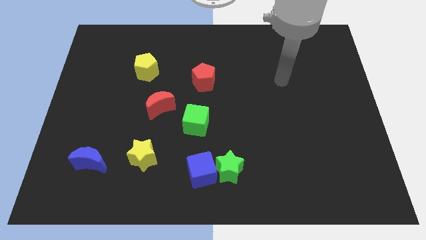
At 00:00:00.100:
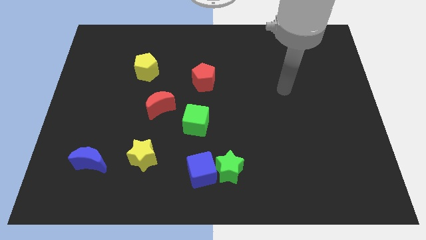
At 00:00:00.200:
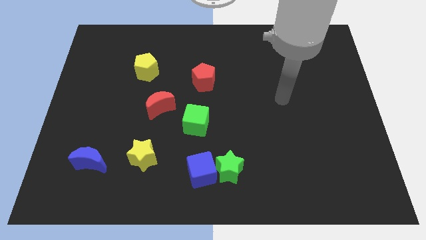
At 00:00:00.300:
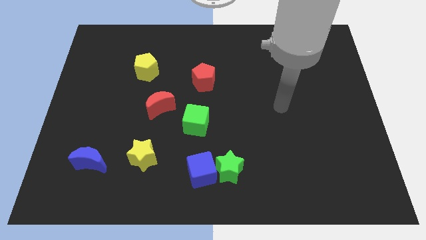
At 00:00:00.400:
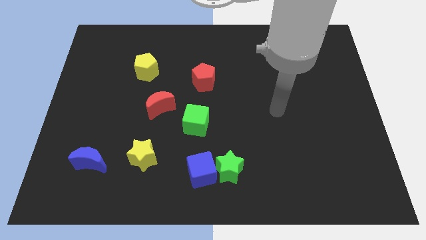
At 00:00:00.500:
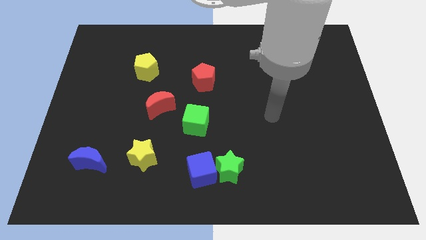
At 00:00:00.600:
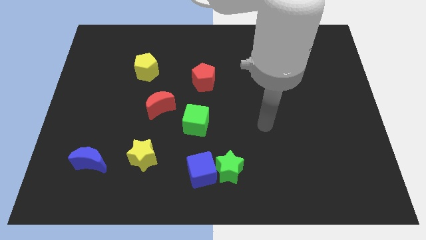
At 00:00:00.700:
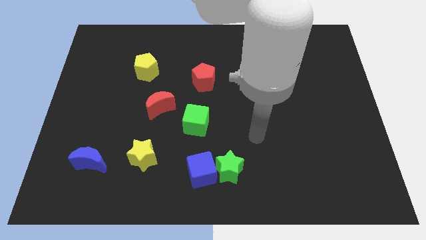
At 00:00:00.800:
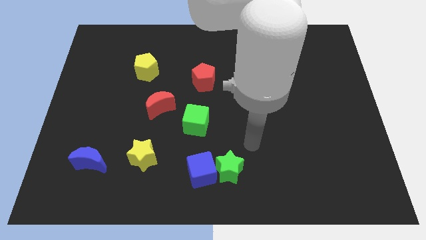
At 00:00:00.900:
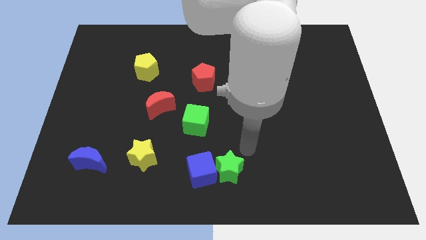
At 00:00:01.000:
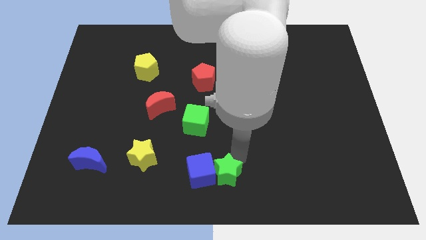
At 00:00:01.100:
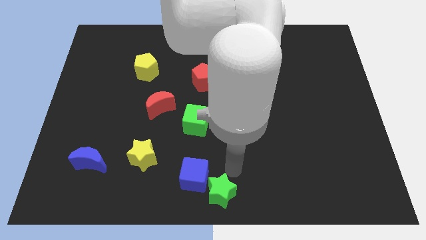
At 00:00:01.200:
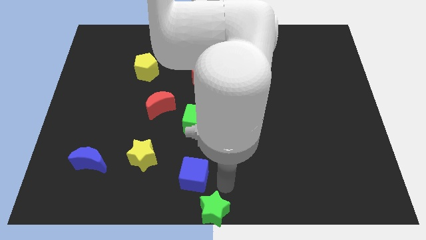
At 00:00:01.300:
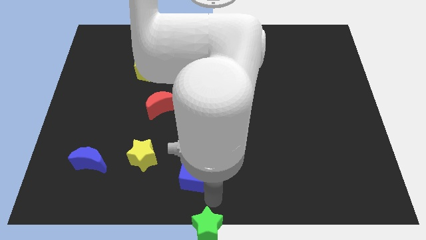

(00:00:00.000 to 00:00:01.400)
pull the blue cube apart from the green star

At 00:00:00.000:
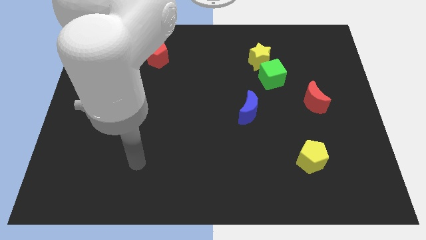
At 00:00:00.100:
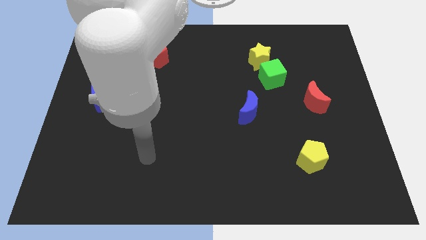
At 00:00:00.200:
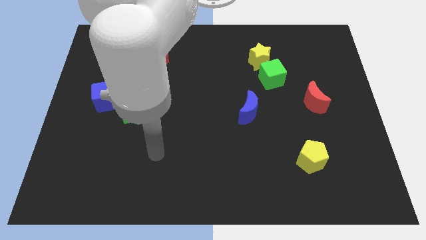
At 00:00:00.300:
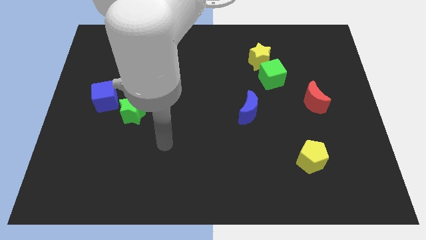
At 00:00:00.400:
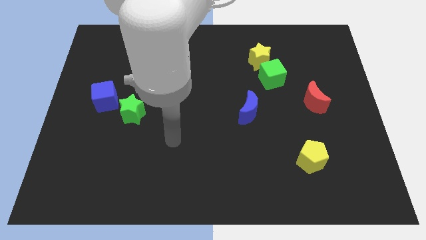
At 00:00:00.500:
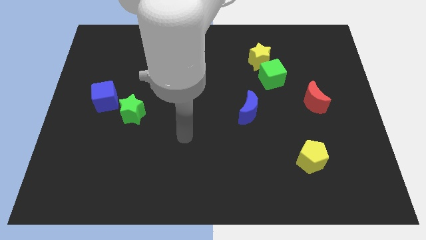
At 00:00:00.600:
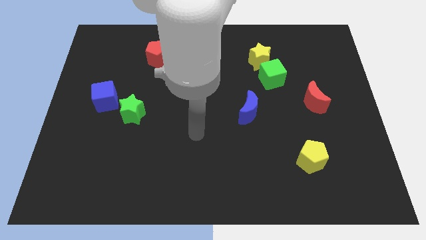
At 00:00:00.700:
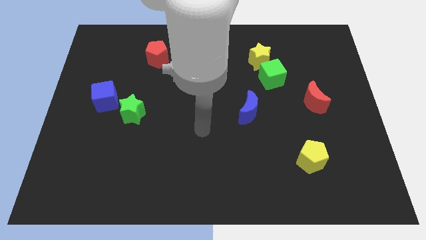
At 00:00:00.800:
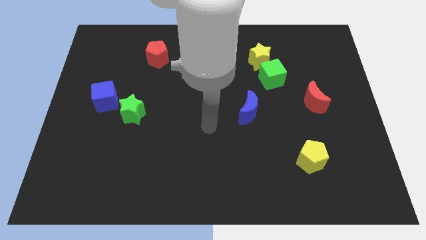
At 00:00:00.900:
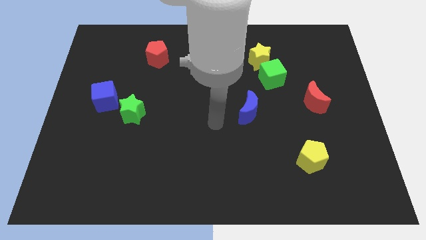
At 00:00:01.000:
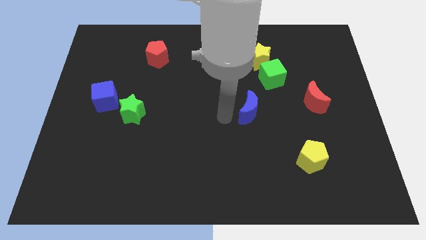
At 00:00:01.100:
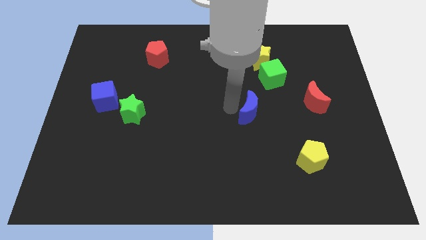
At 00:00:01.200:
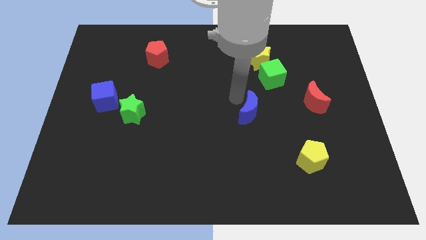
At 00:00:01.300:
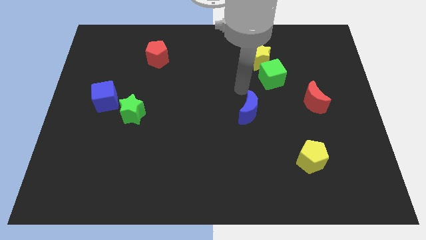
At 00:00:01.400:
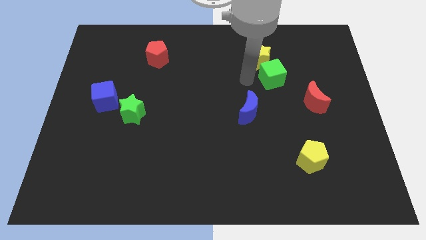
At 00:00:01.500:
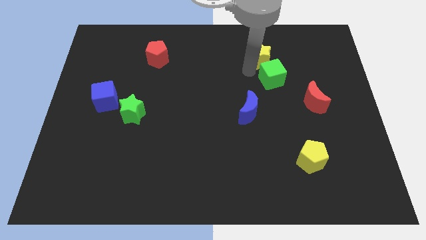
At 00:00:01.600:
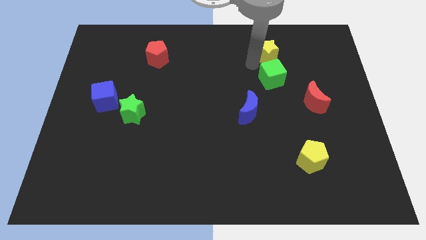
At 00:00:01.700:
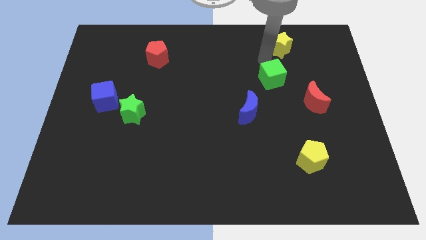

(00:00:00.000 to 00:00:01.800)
move the green cube away from the yellow star

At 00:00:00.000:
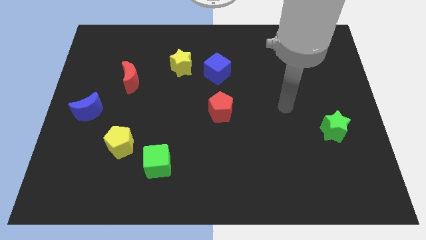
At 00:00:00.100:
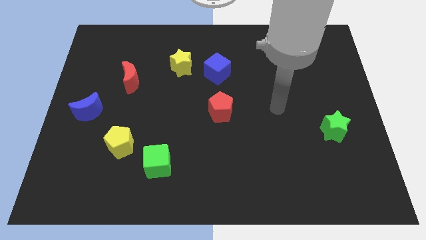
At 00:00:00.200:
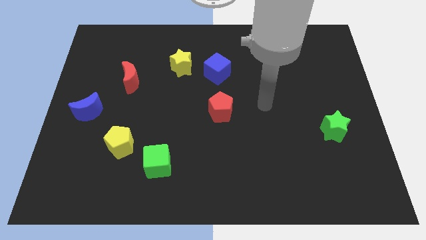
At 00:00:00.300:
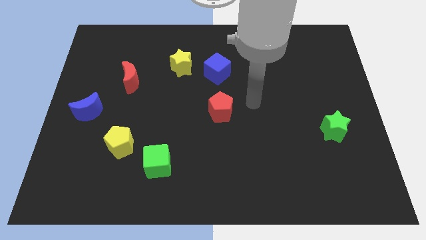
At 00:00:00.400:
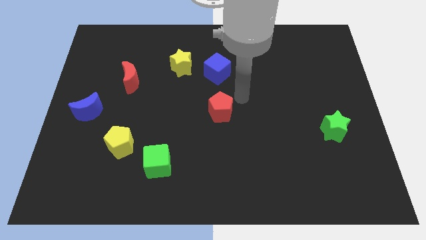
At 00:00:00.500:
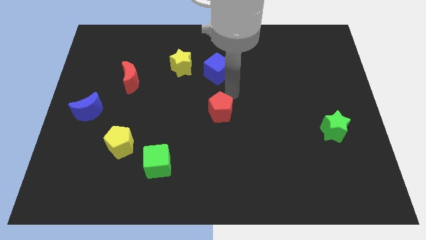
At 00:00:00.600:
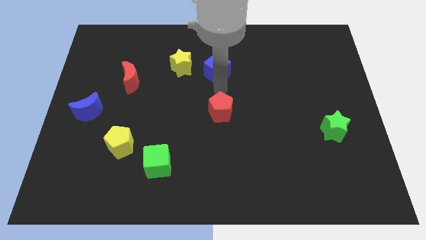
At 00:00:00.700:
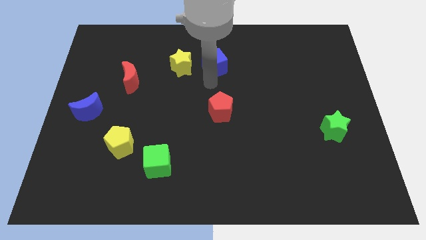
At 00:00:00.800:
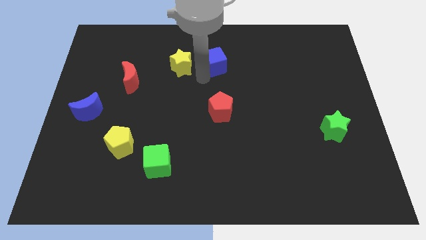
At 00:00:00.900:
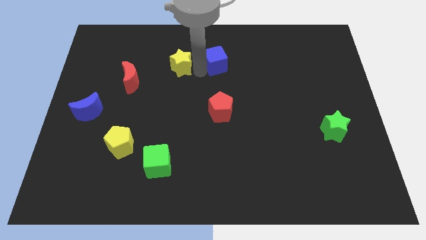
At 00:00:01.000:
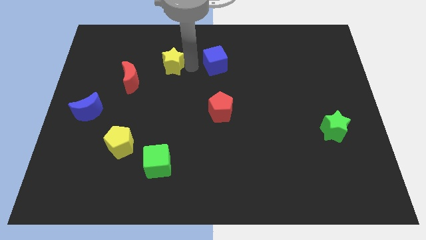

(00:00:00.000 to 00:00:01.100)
pull the blue cube apart from the yellow star

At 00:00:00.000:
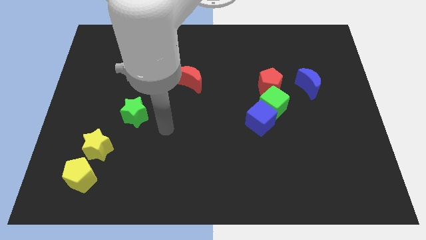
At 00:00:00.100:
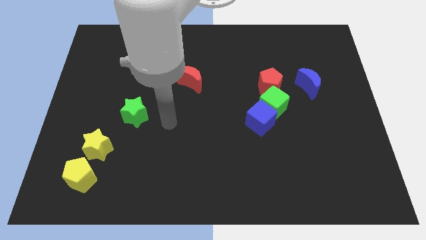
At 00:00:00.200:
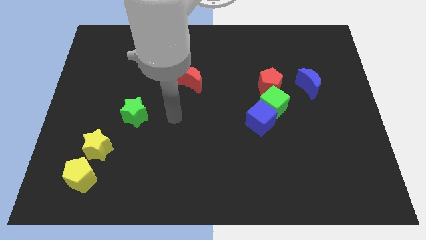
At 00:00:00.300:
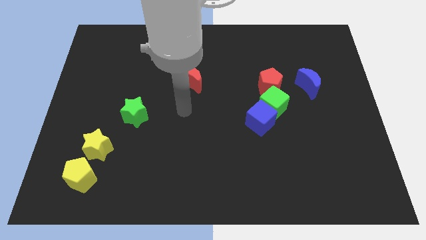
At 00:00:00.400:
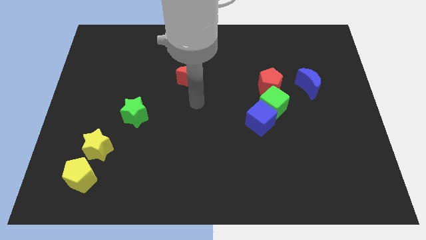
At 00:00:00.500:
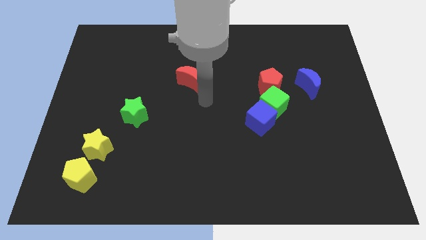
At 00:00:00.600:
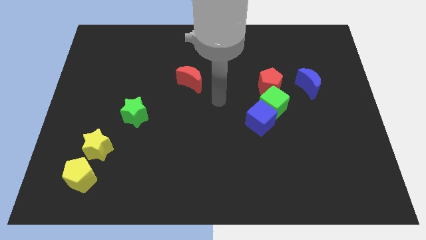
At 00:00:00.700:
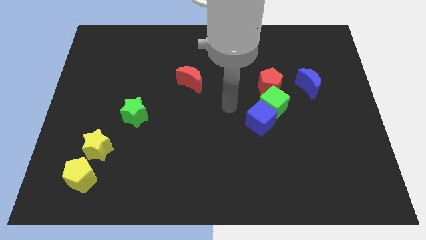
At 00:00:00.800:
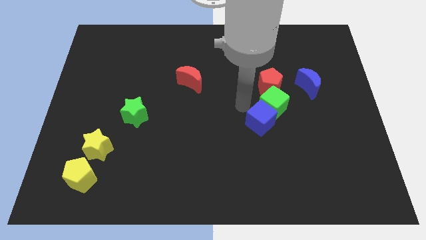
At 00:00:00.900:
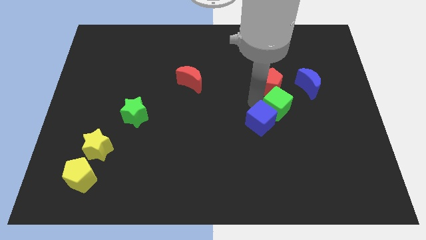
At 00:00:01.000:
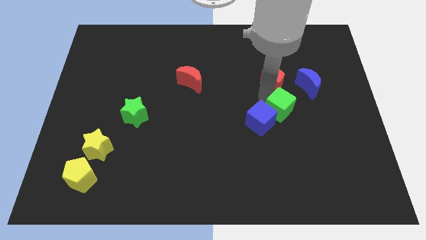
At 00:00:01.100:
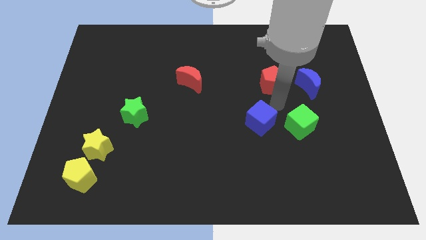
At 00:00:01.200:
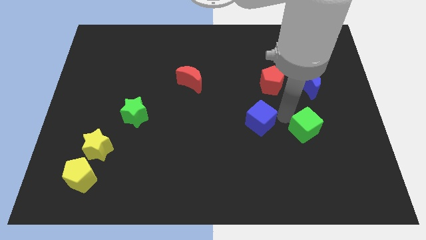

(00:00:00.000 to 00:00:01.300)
move the blue cube away from the green cube

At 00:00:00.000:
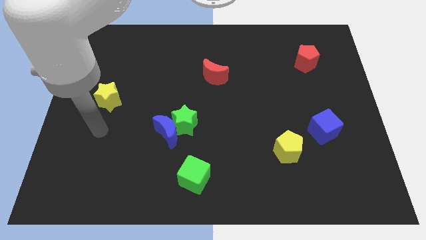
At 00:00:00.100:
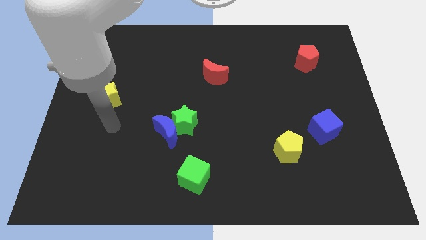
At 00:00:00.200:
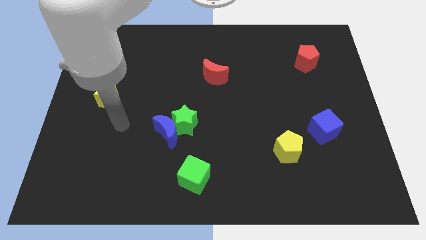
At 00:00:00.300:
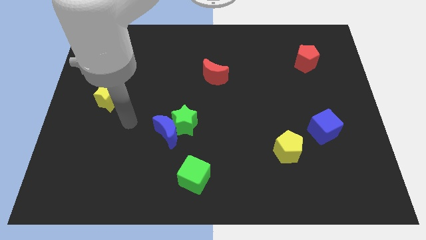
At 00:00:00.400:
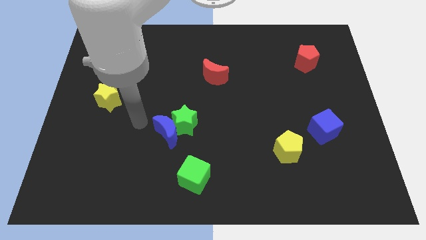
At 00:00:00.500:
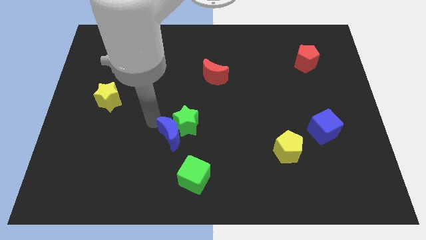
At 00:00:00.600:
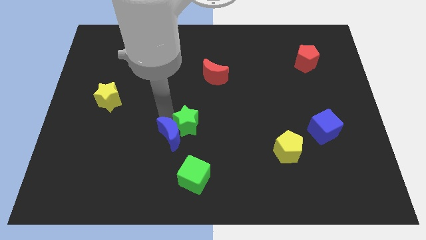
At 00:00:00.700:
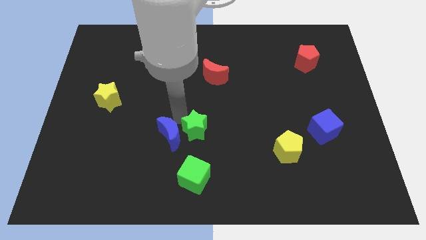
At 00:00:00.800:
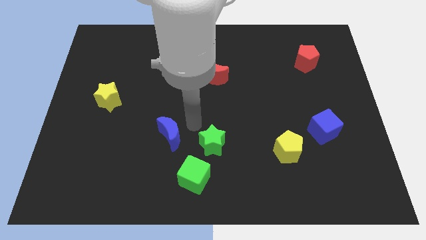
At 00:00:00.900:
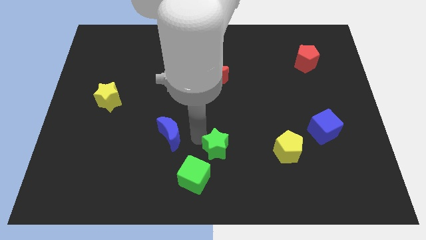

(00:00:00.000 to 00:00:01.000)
pull the blue moon apart from the green star

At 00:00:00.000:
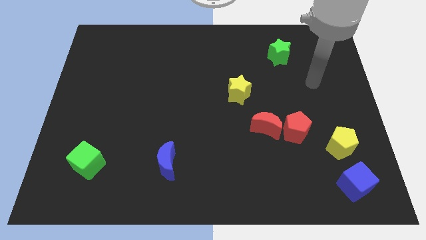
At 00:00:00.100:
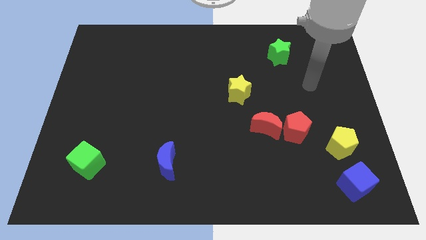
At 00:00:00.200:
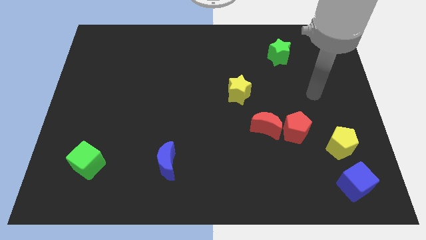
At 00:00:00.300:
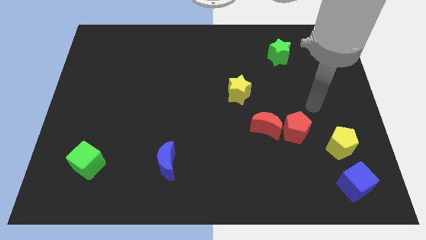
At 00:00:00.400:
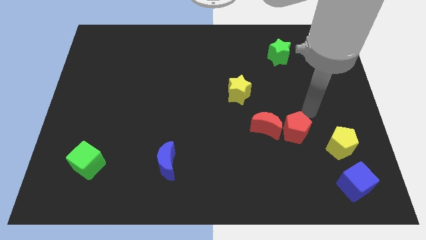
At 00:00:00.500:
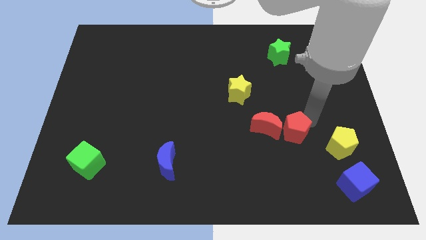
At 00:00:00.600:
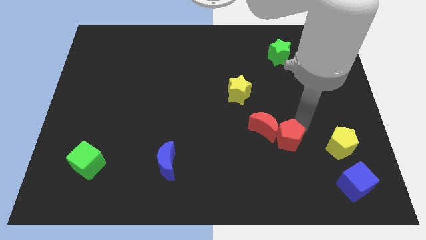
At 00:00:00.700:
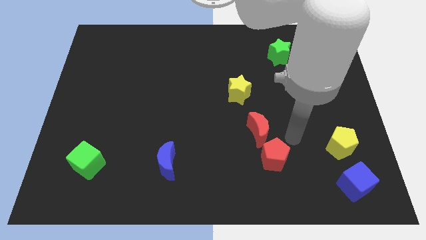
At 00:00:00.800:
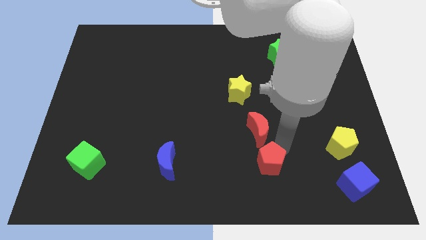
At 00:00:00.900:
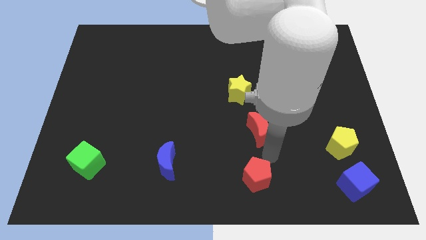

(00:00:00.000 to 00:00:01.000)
separate the red moon from the red pentagon

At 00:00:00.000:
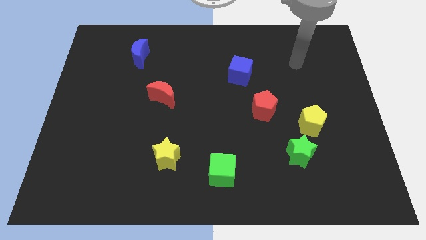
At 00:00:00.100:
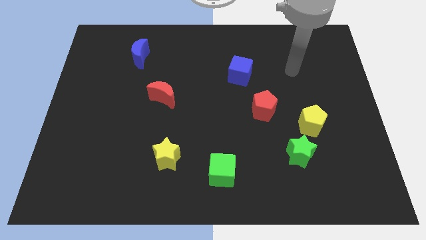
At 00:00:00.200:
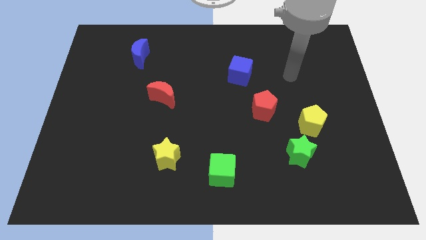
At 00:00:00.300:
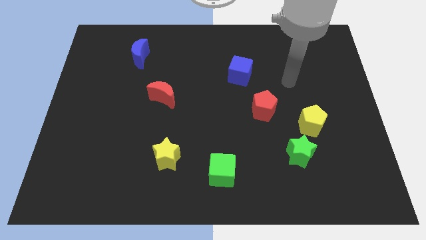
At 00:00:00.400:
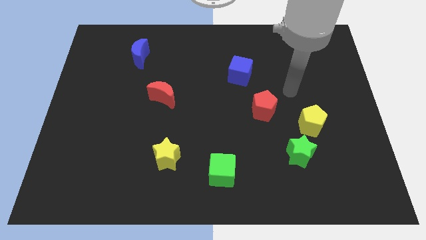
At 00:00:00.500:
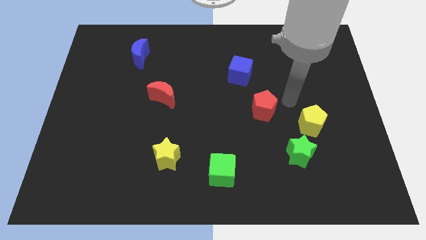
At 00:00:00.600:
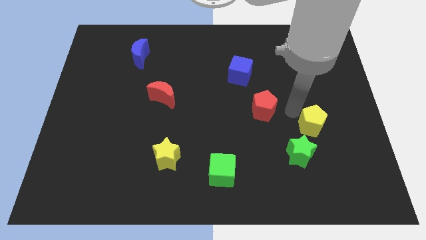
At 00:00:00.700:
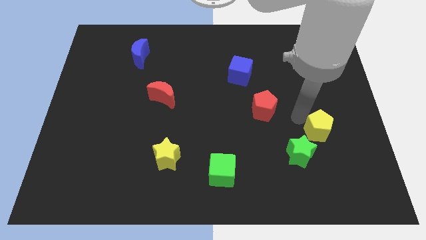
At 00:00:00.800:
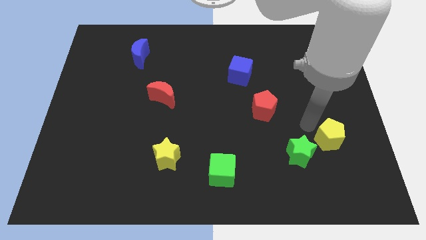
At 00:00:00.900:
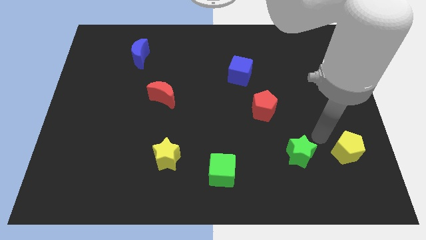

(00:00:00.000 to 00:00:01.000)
move the green star away from the yellow pentagon

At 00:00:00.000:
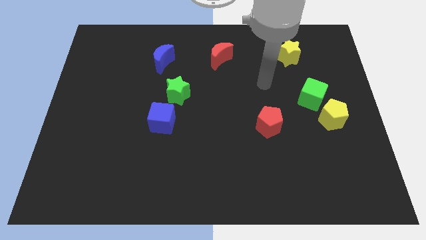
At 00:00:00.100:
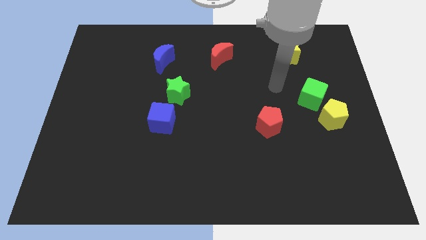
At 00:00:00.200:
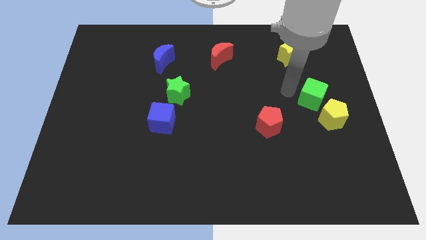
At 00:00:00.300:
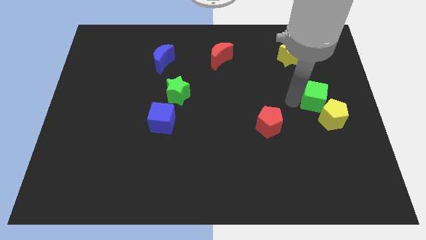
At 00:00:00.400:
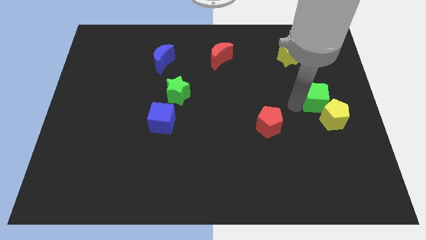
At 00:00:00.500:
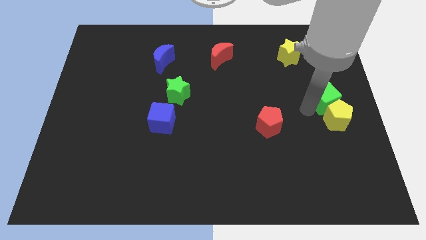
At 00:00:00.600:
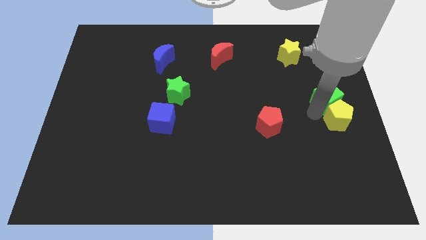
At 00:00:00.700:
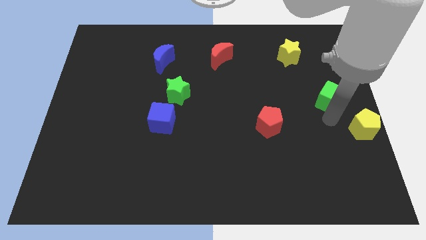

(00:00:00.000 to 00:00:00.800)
separate the green cube from the yellow pentagon
